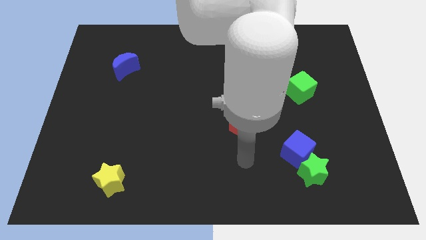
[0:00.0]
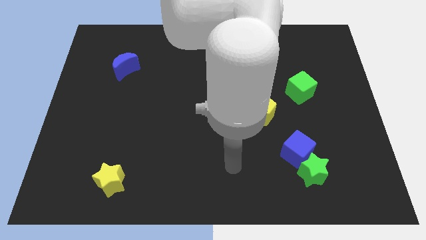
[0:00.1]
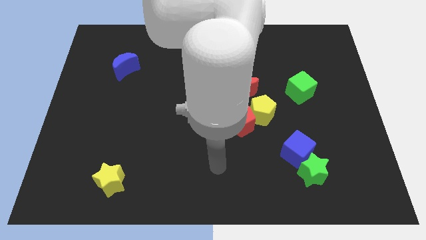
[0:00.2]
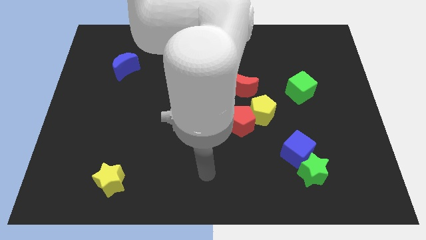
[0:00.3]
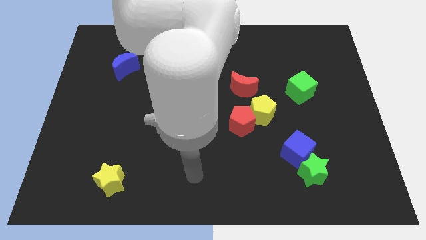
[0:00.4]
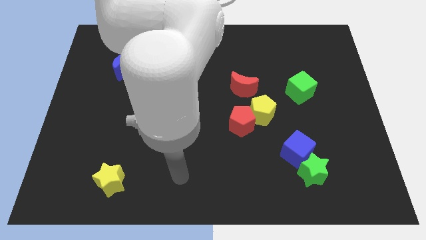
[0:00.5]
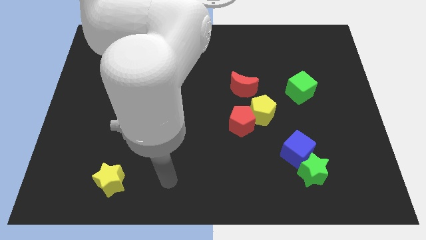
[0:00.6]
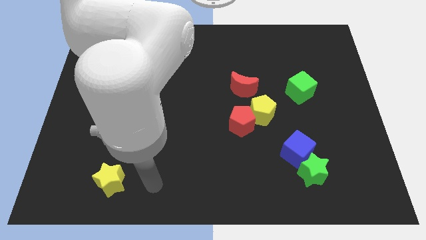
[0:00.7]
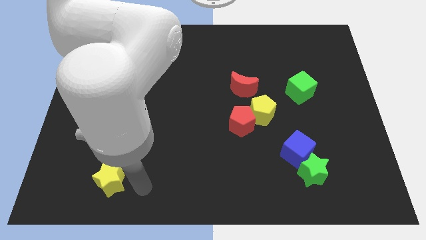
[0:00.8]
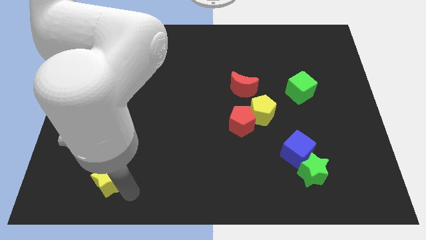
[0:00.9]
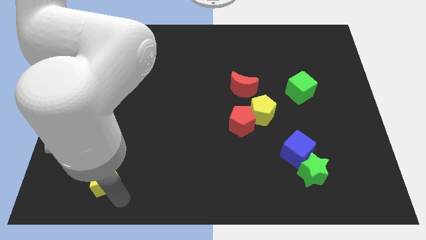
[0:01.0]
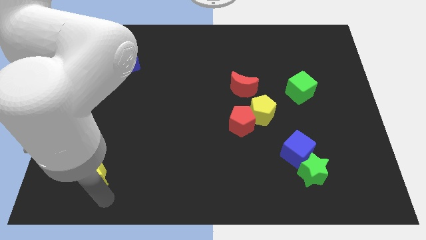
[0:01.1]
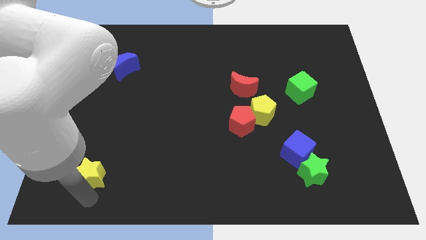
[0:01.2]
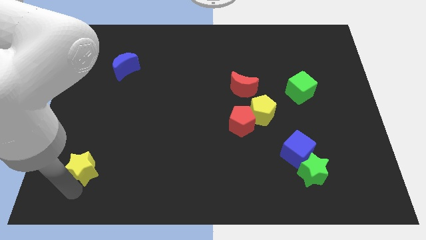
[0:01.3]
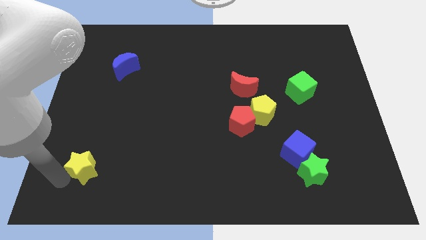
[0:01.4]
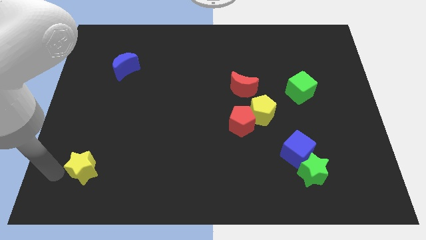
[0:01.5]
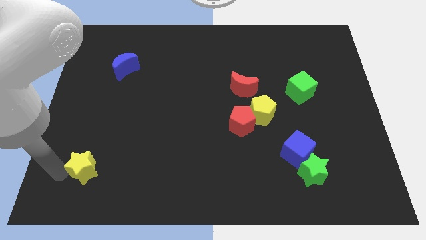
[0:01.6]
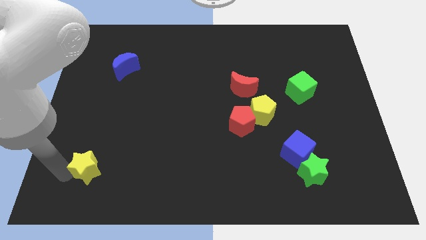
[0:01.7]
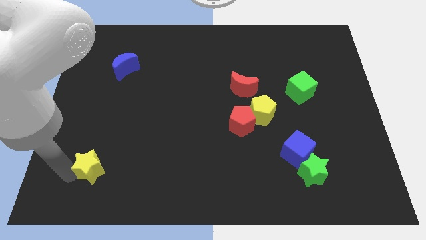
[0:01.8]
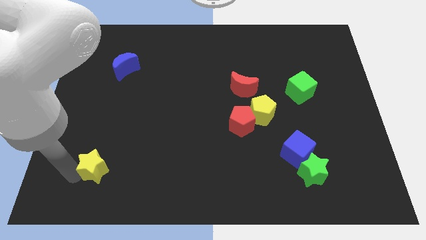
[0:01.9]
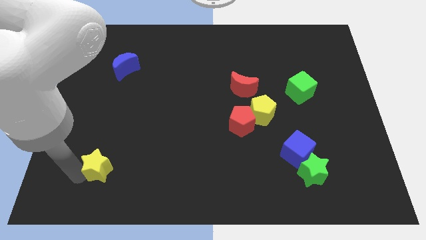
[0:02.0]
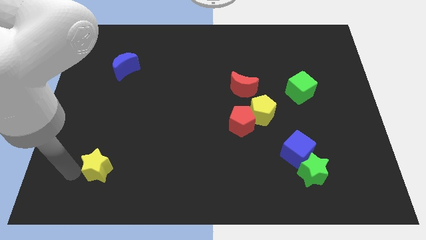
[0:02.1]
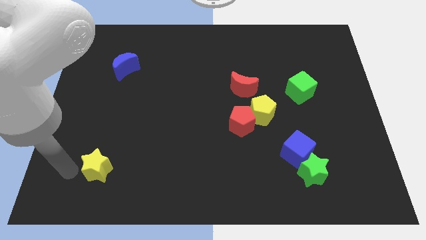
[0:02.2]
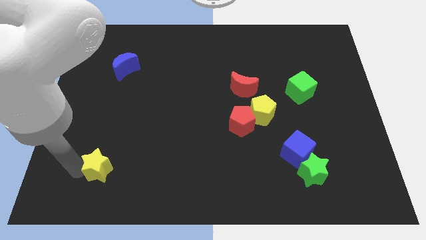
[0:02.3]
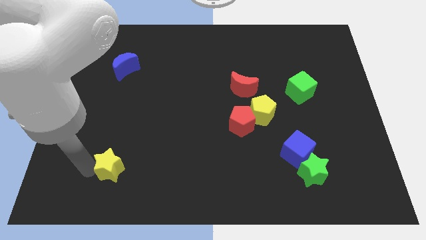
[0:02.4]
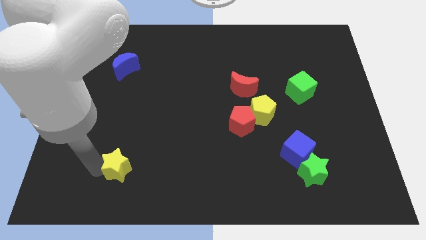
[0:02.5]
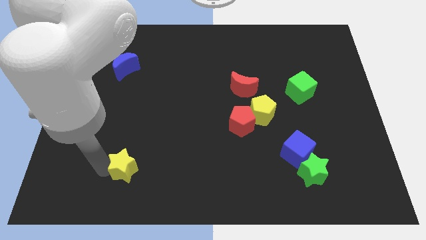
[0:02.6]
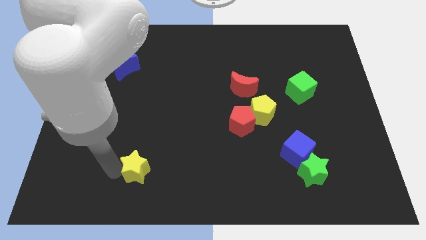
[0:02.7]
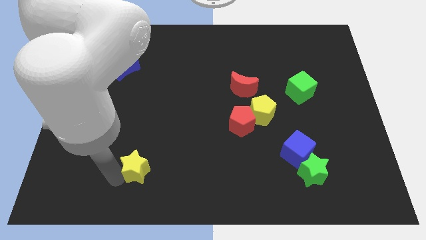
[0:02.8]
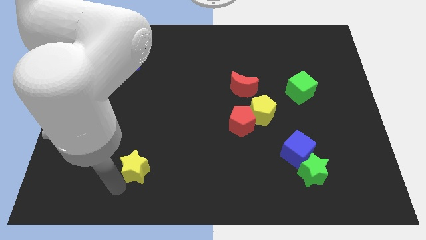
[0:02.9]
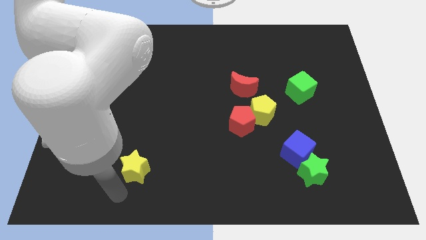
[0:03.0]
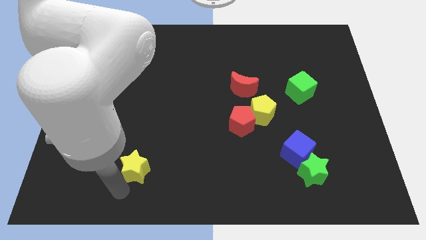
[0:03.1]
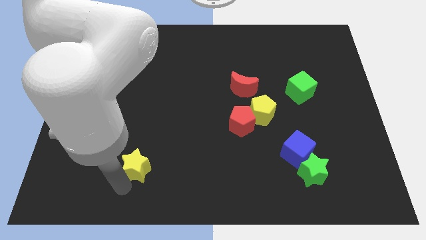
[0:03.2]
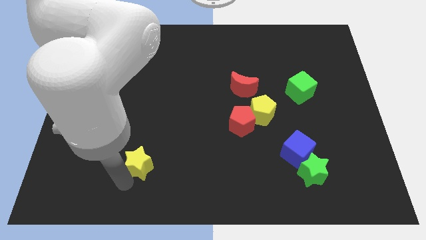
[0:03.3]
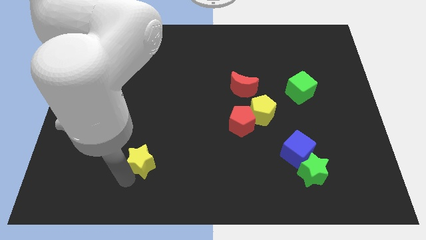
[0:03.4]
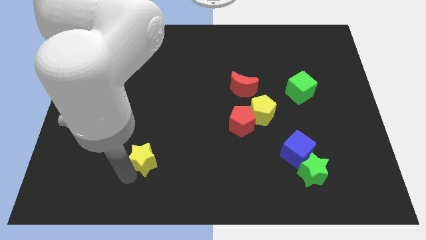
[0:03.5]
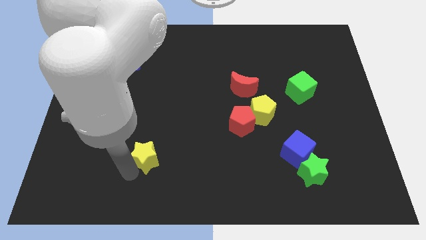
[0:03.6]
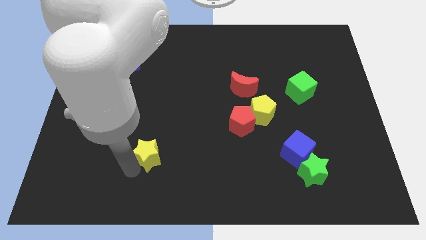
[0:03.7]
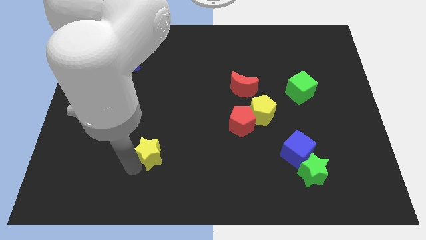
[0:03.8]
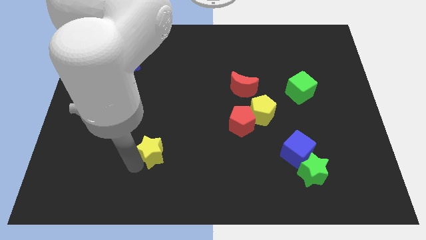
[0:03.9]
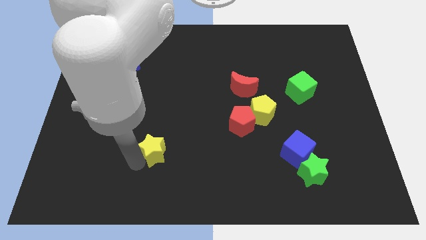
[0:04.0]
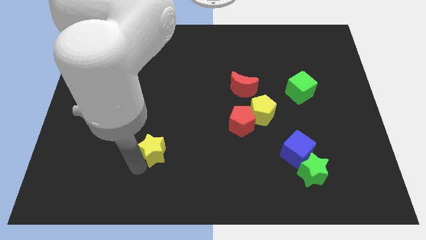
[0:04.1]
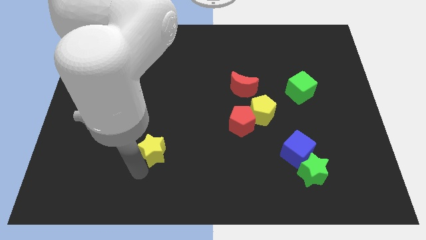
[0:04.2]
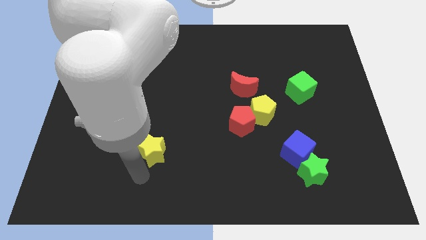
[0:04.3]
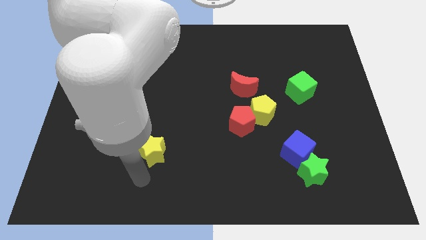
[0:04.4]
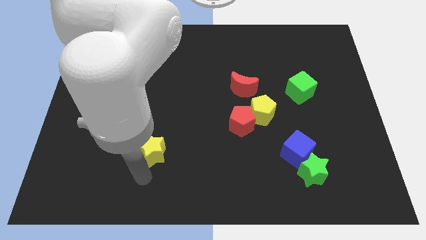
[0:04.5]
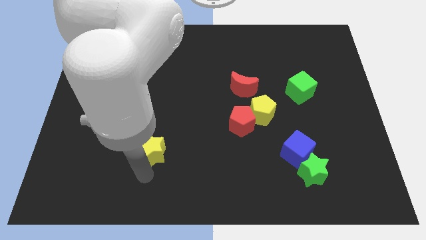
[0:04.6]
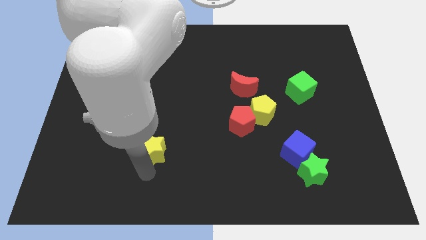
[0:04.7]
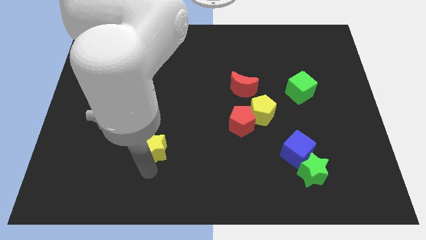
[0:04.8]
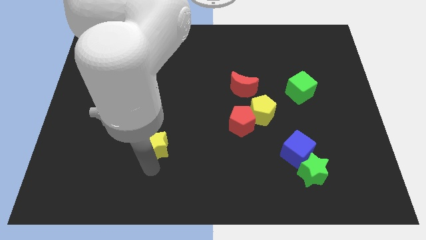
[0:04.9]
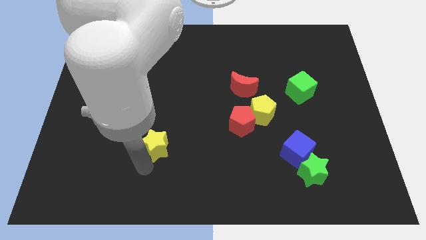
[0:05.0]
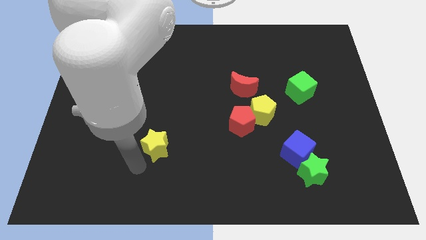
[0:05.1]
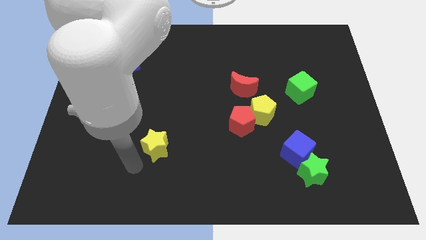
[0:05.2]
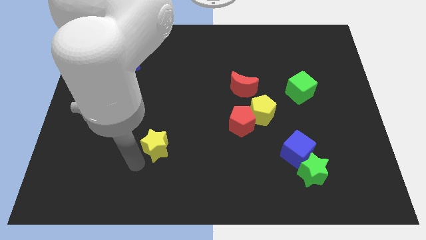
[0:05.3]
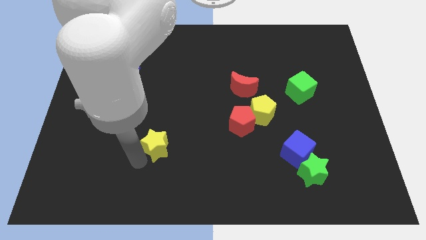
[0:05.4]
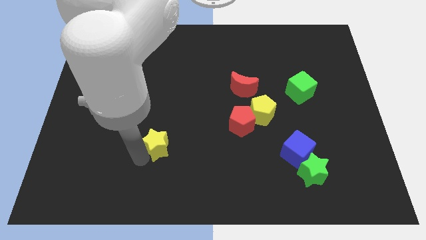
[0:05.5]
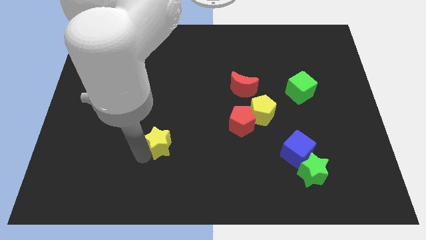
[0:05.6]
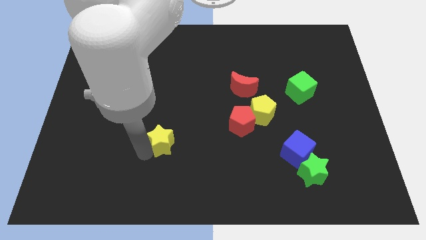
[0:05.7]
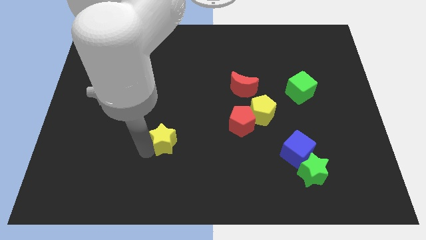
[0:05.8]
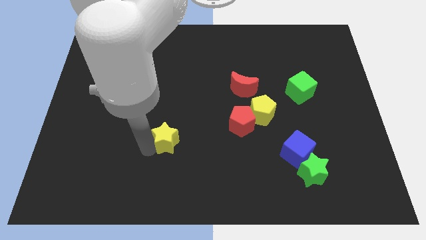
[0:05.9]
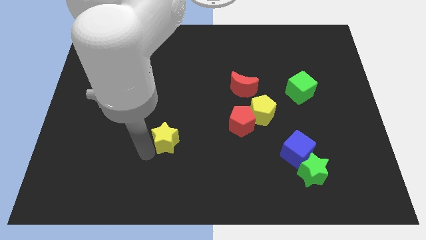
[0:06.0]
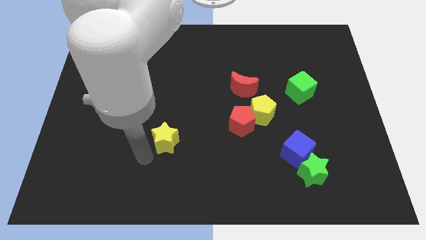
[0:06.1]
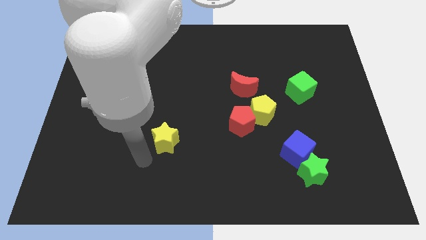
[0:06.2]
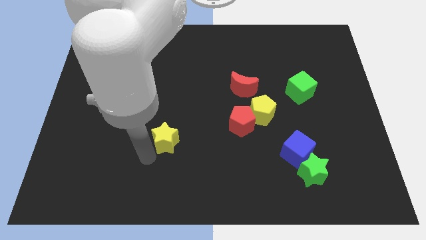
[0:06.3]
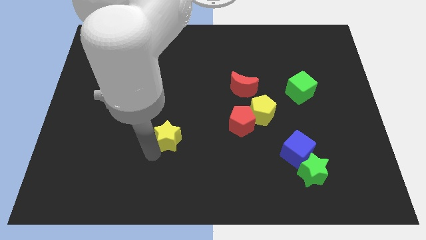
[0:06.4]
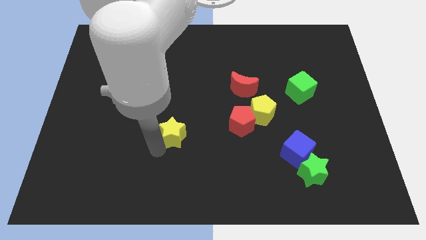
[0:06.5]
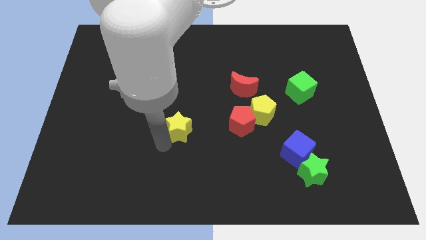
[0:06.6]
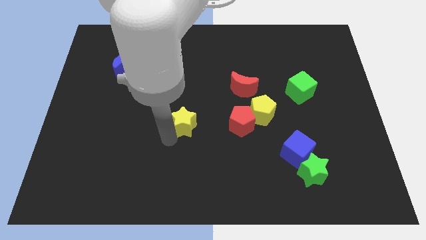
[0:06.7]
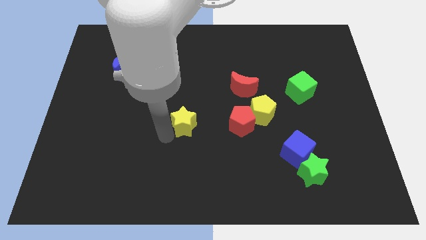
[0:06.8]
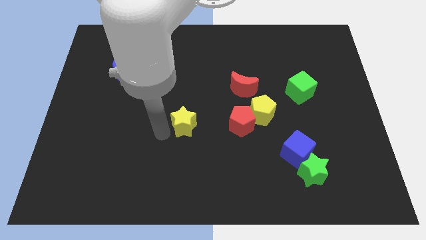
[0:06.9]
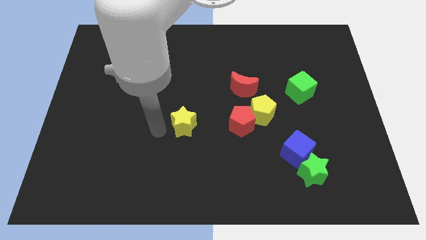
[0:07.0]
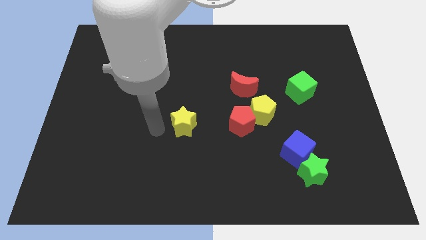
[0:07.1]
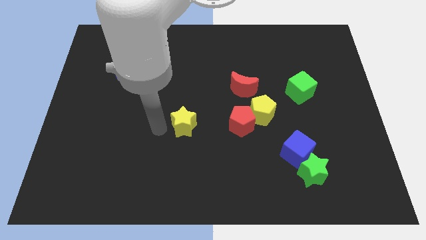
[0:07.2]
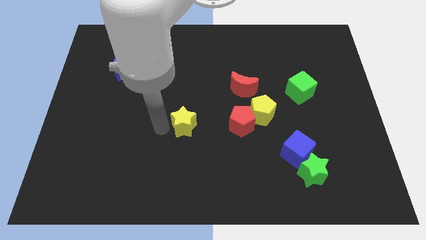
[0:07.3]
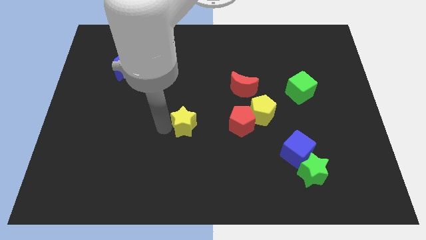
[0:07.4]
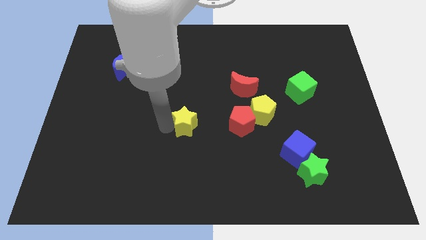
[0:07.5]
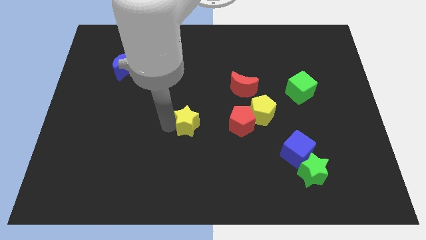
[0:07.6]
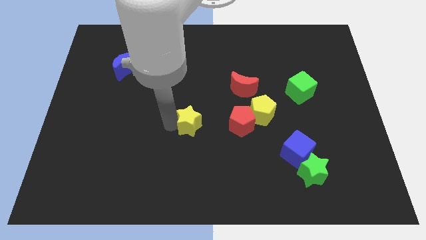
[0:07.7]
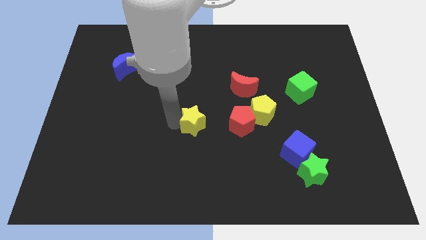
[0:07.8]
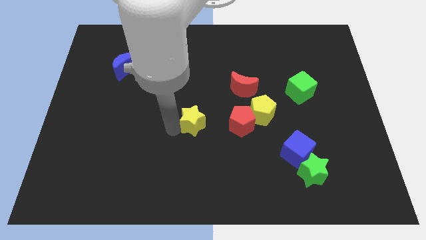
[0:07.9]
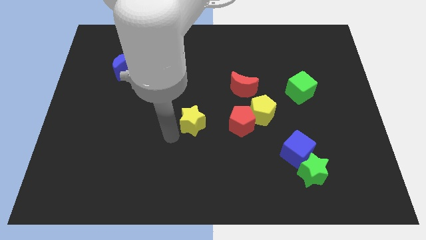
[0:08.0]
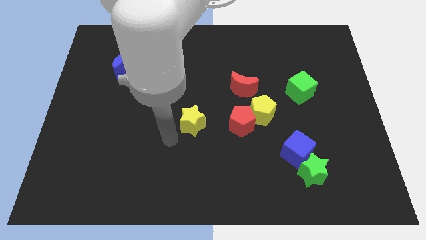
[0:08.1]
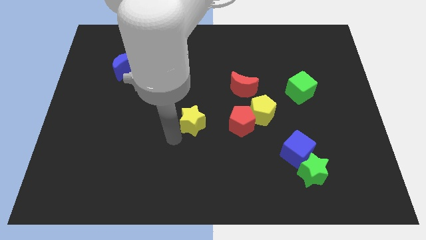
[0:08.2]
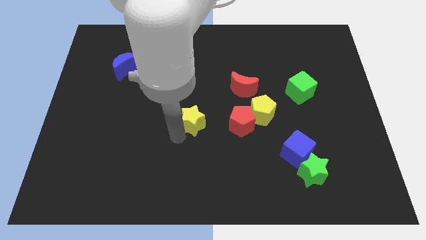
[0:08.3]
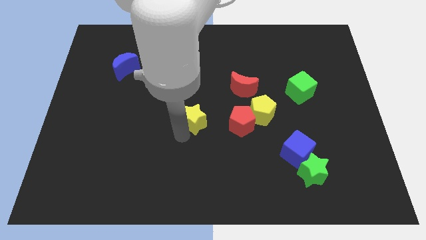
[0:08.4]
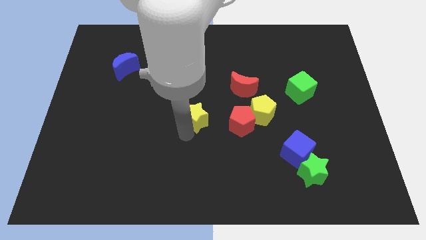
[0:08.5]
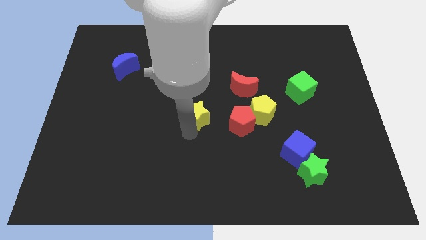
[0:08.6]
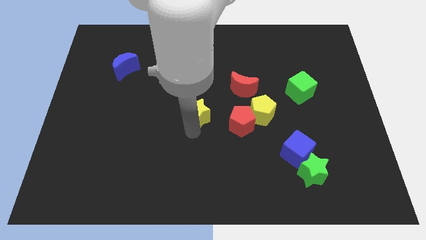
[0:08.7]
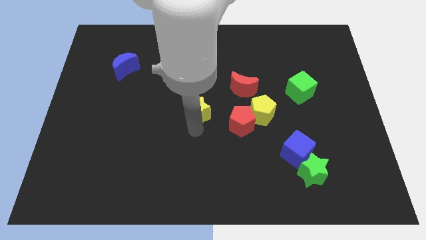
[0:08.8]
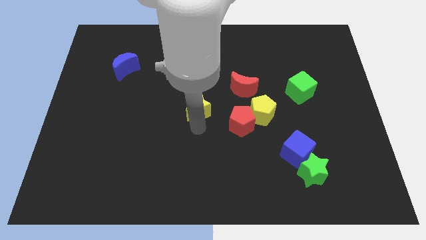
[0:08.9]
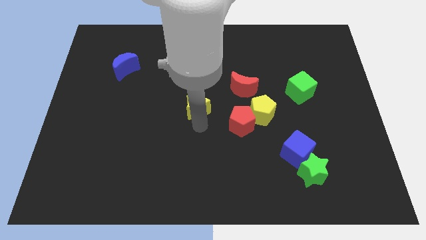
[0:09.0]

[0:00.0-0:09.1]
move the yellow star diagonally down and to the left of the red moon
